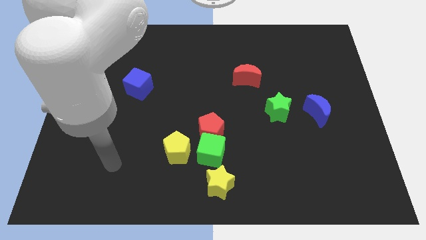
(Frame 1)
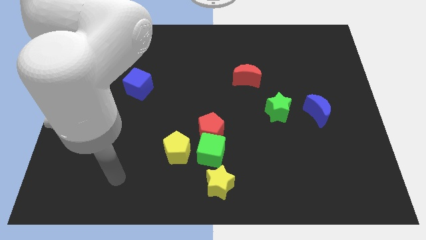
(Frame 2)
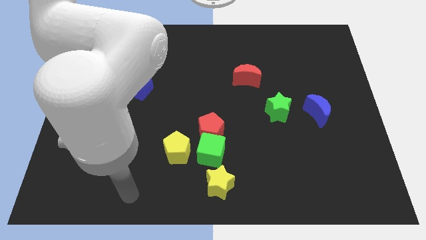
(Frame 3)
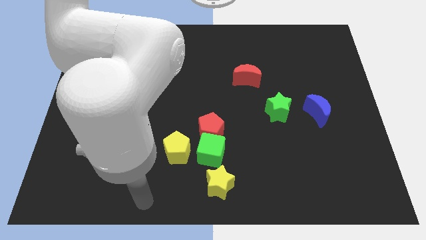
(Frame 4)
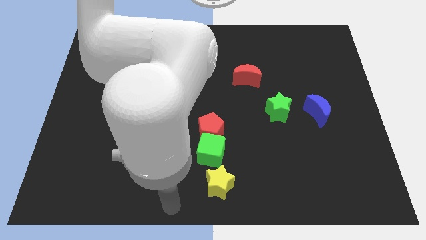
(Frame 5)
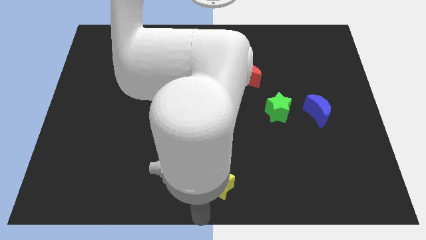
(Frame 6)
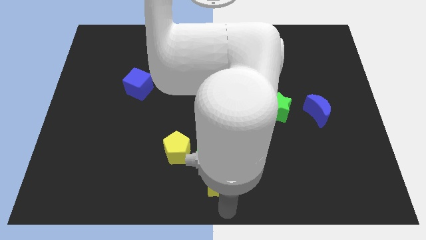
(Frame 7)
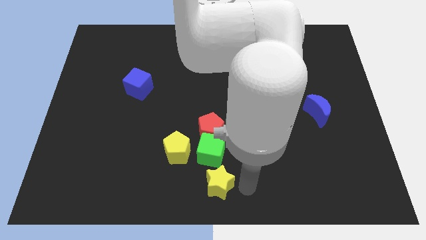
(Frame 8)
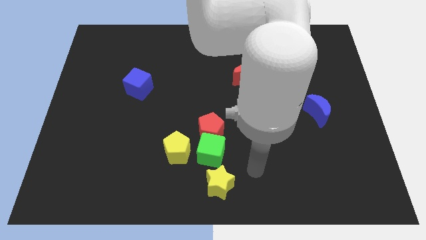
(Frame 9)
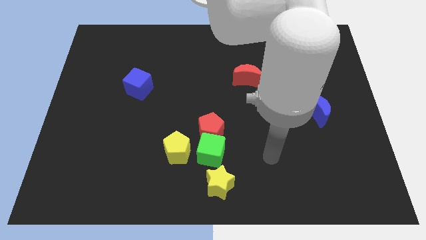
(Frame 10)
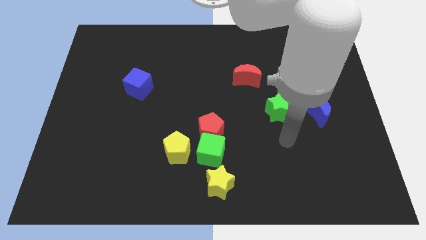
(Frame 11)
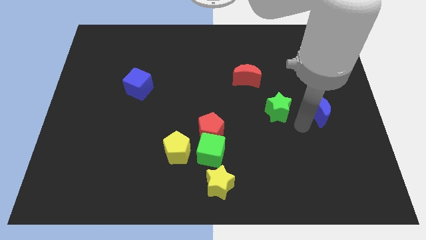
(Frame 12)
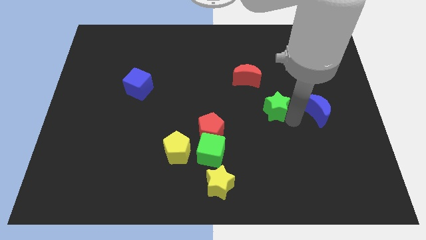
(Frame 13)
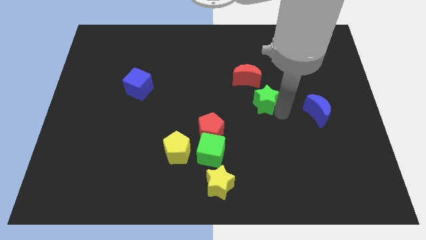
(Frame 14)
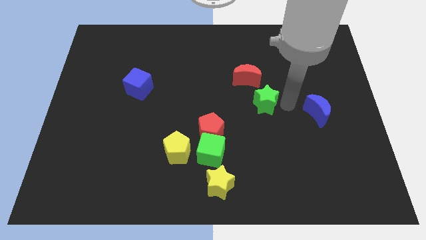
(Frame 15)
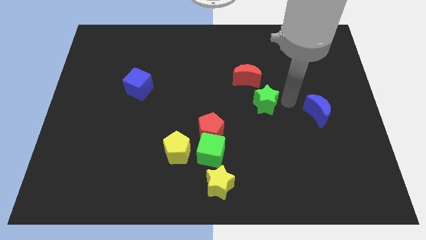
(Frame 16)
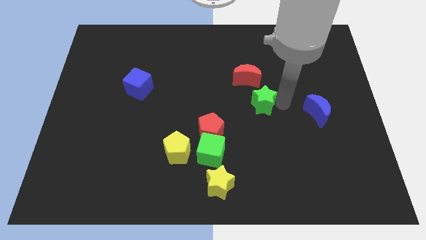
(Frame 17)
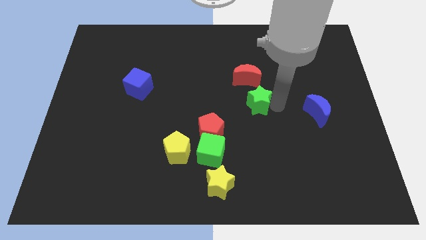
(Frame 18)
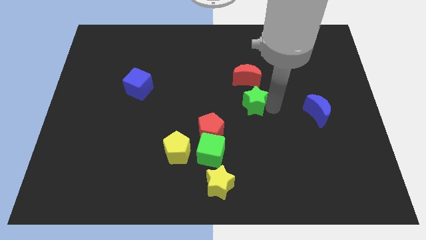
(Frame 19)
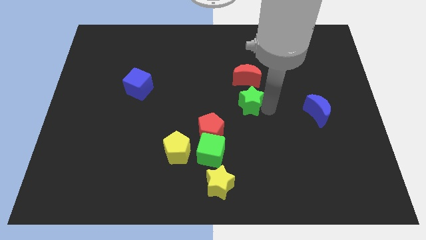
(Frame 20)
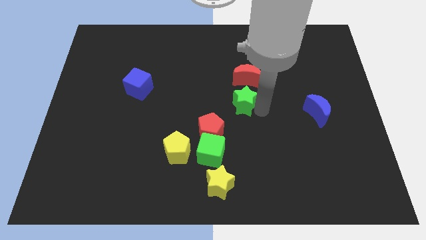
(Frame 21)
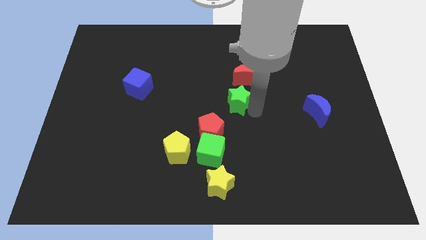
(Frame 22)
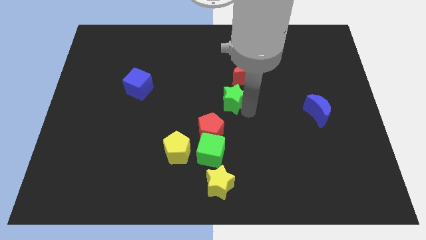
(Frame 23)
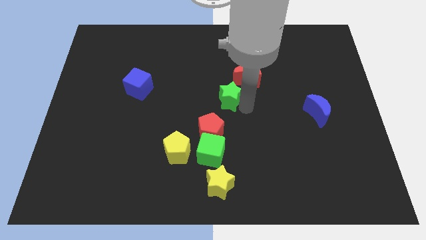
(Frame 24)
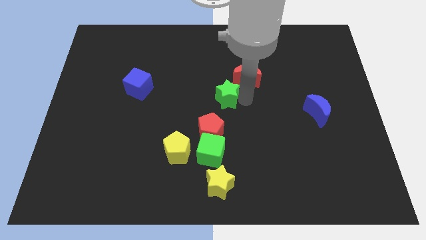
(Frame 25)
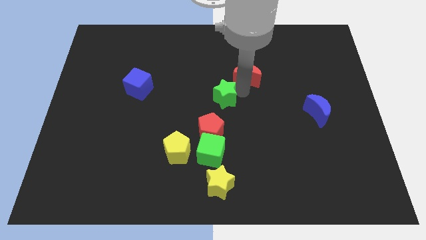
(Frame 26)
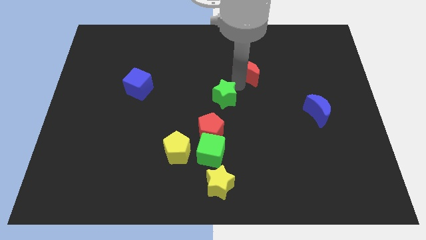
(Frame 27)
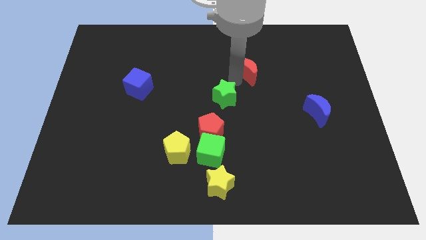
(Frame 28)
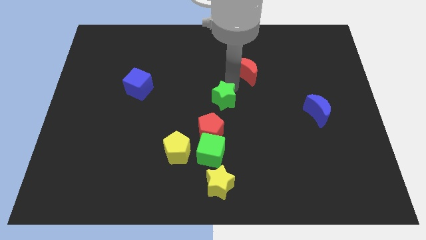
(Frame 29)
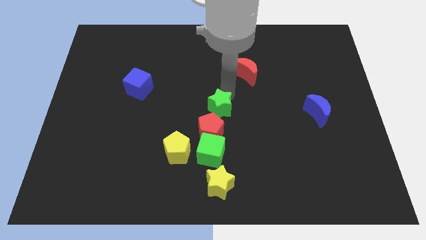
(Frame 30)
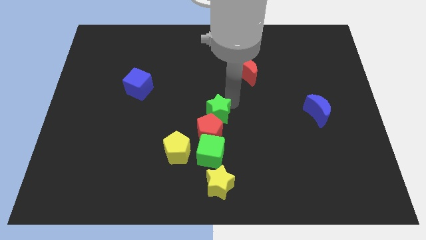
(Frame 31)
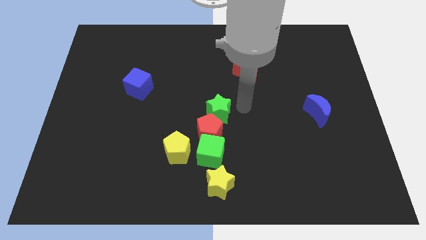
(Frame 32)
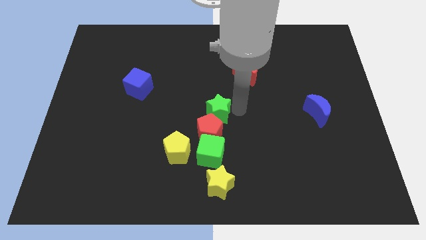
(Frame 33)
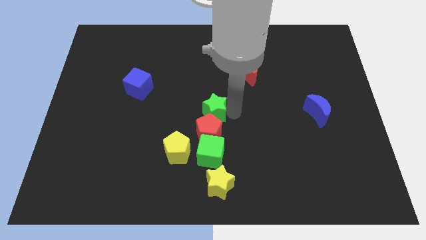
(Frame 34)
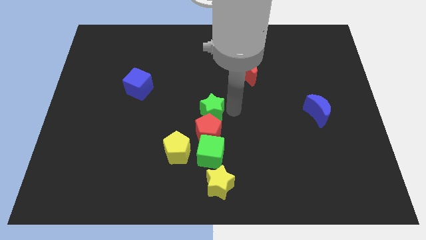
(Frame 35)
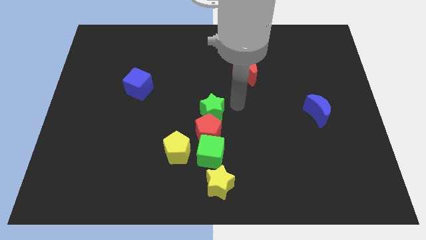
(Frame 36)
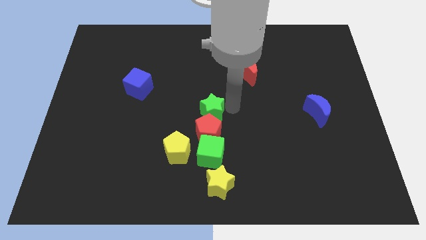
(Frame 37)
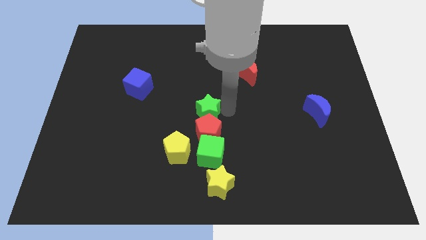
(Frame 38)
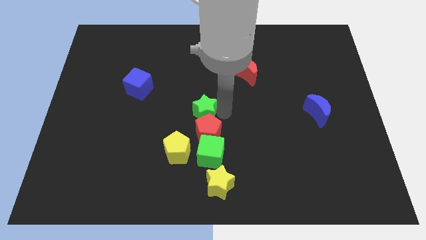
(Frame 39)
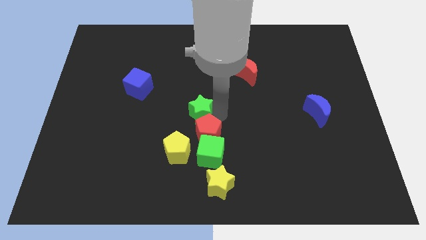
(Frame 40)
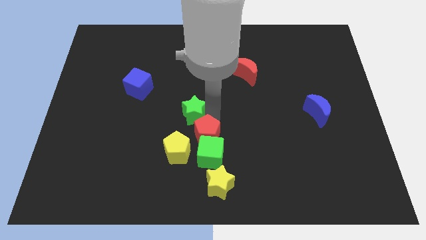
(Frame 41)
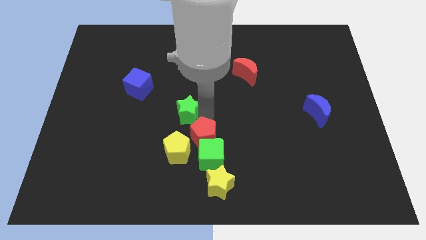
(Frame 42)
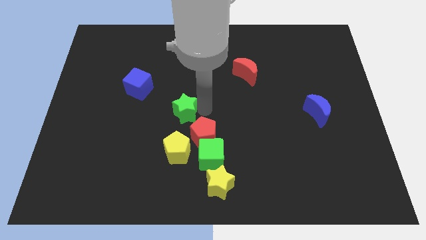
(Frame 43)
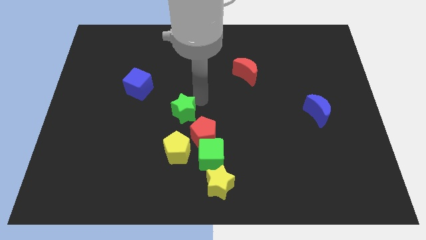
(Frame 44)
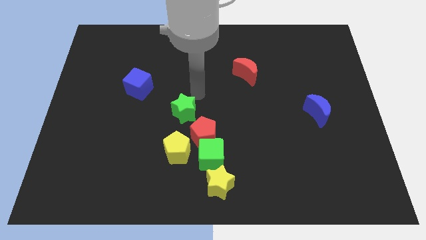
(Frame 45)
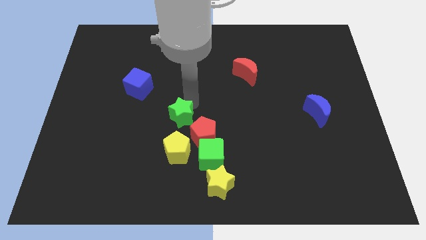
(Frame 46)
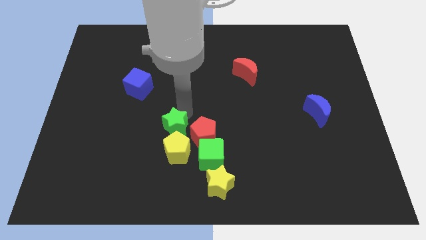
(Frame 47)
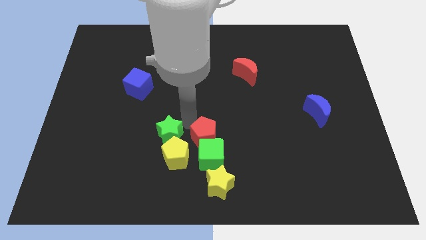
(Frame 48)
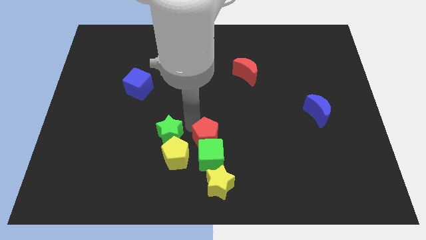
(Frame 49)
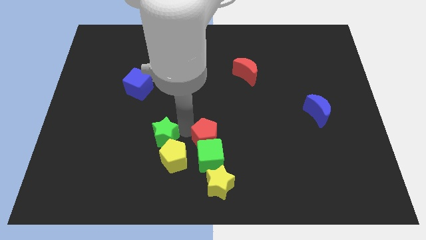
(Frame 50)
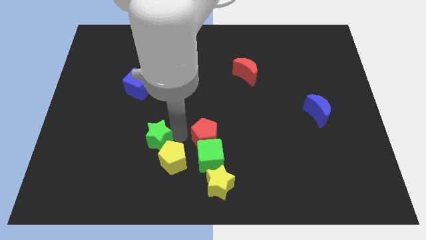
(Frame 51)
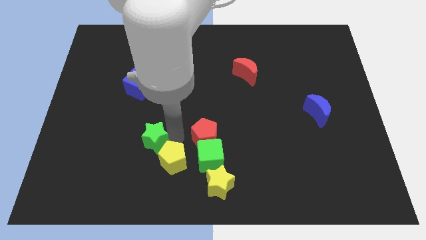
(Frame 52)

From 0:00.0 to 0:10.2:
push the green star to the left of the yellow pentagon

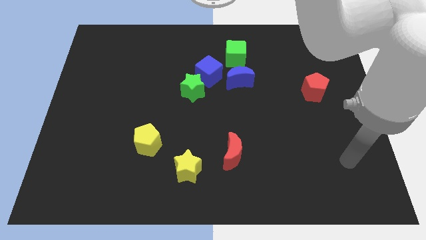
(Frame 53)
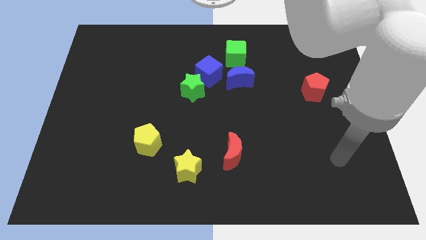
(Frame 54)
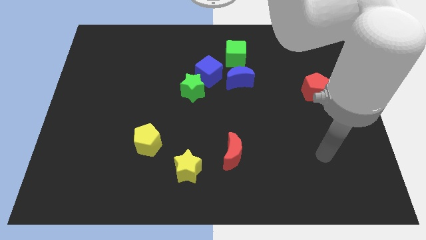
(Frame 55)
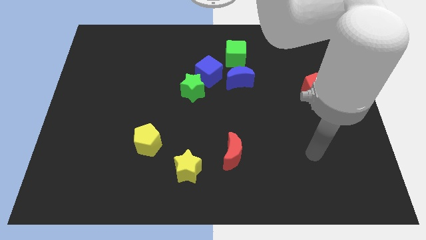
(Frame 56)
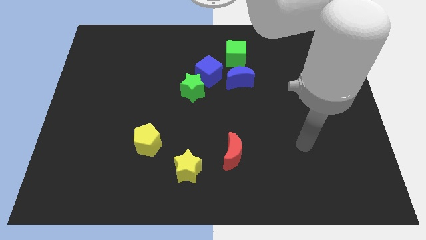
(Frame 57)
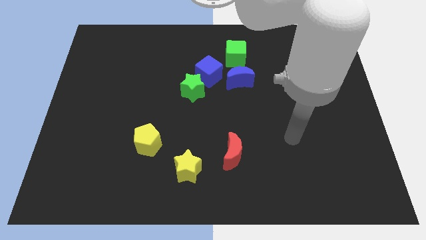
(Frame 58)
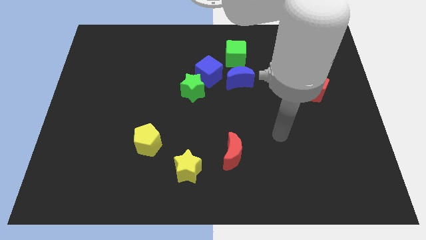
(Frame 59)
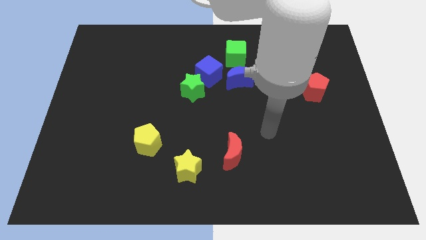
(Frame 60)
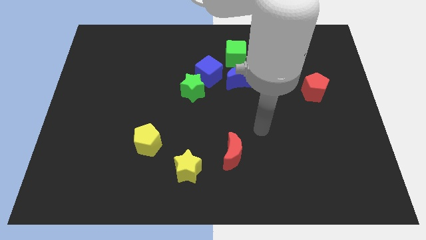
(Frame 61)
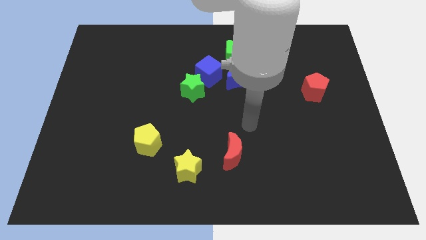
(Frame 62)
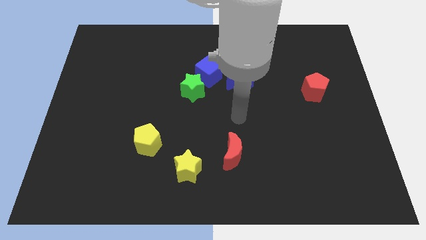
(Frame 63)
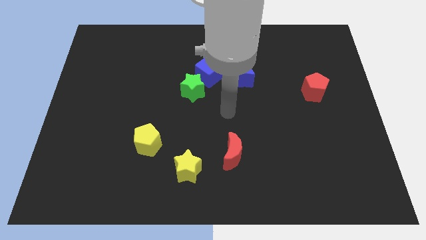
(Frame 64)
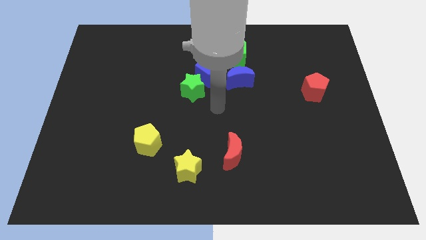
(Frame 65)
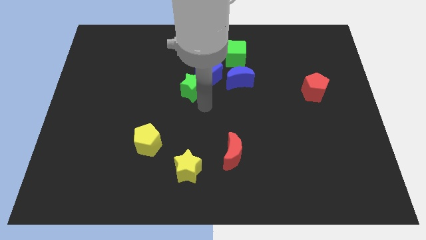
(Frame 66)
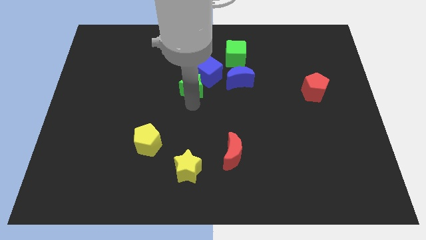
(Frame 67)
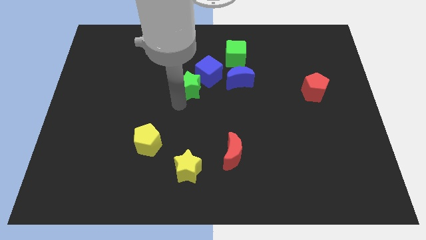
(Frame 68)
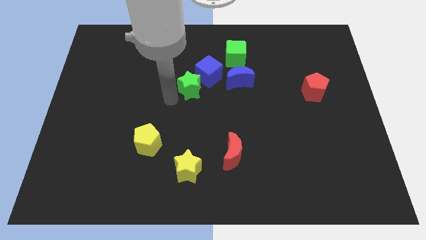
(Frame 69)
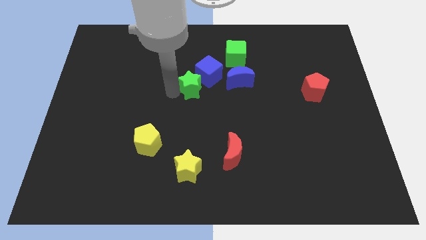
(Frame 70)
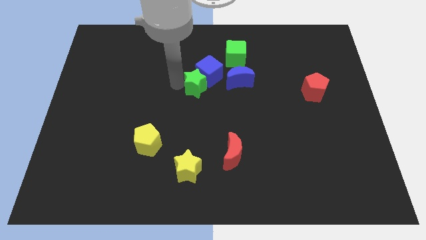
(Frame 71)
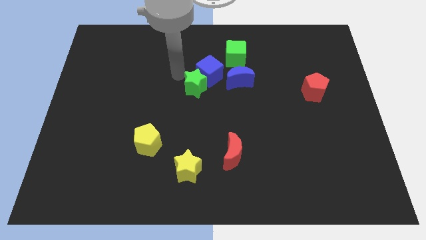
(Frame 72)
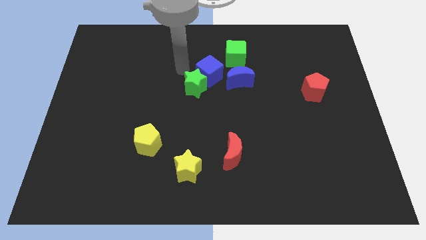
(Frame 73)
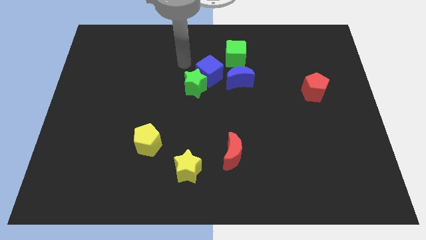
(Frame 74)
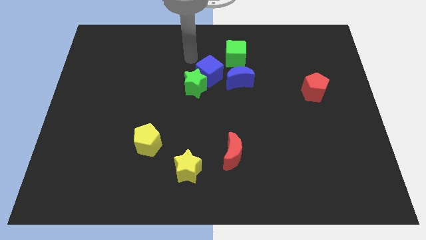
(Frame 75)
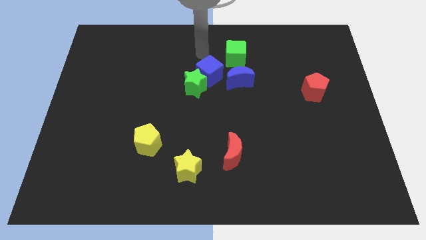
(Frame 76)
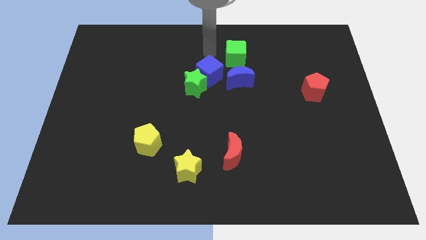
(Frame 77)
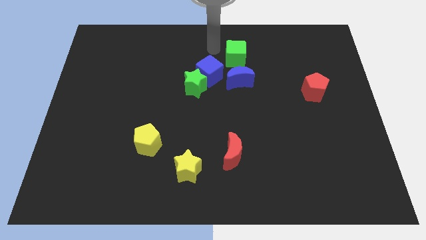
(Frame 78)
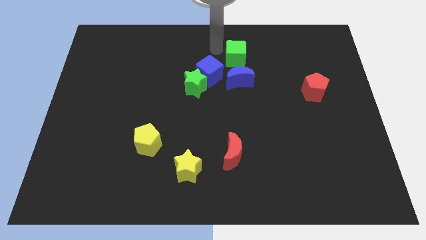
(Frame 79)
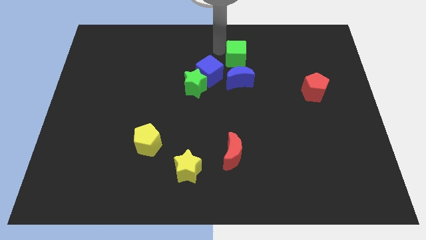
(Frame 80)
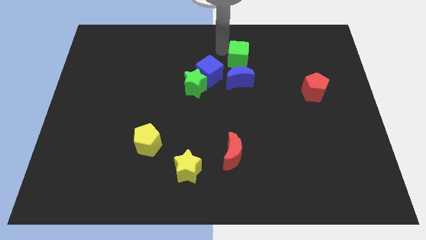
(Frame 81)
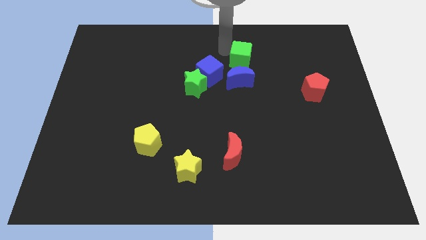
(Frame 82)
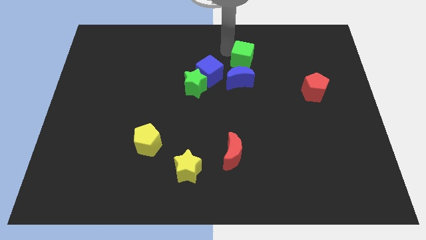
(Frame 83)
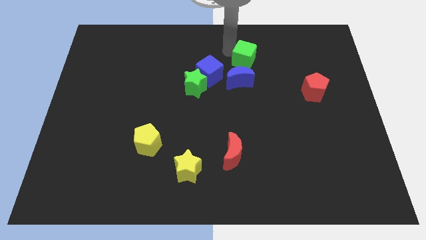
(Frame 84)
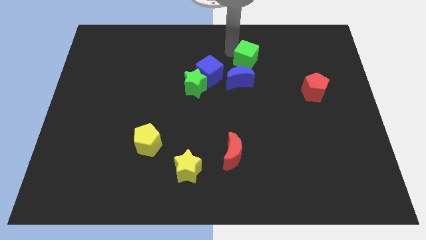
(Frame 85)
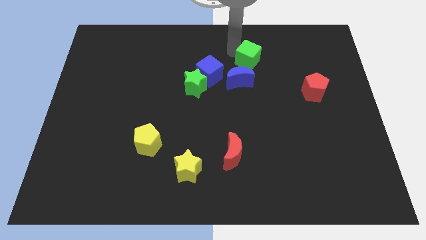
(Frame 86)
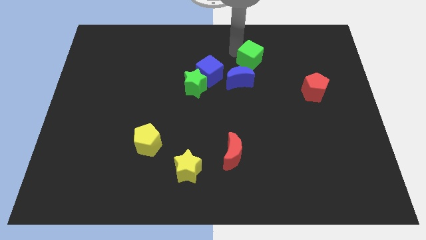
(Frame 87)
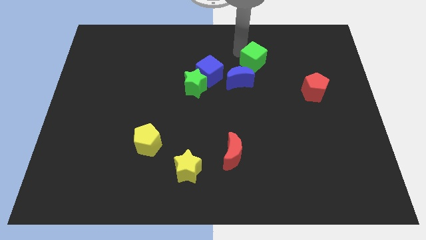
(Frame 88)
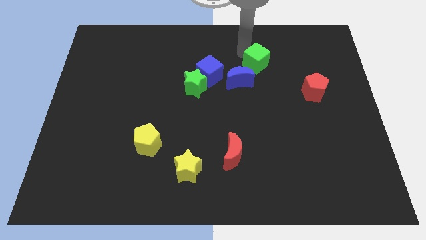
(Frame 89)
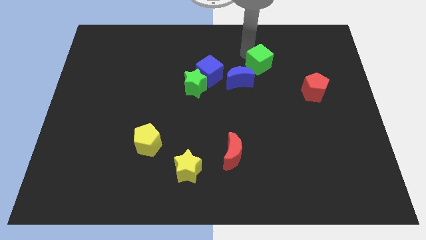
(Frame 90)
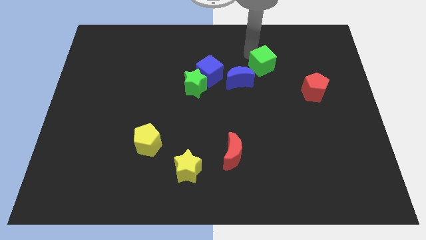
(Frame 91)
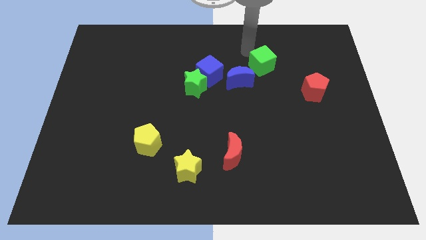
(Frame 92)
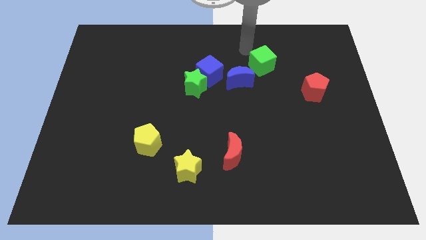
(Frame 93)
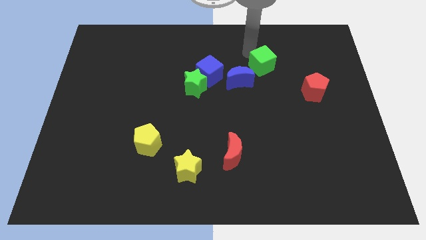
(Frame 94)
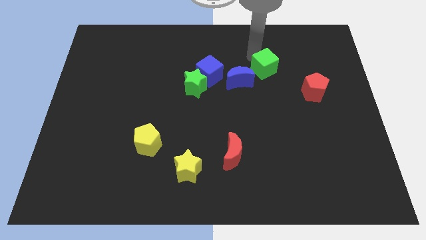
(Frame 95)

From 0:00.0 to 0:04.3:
put the green cube just right of the blue moon
